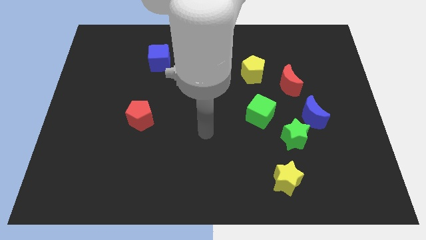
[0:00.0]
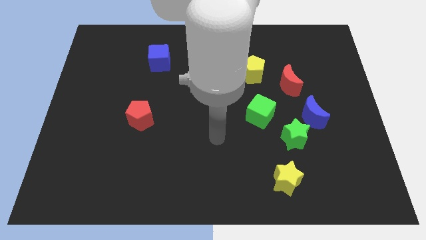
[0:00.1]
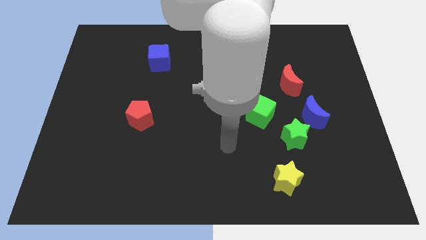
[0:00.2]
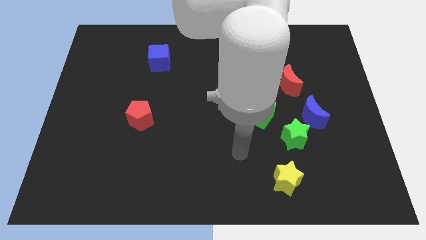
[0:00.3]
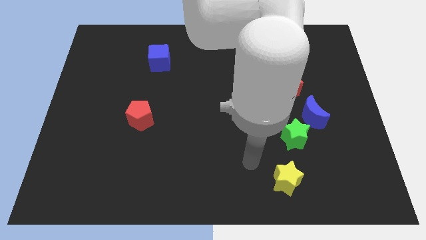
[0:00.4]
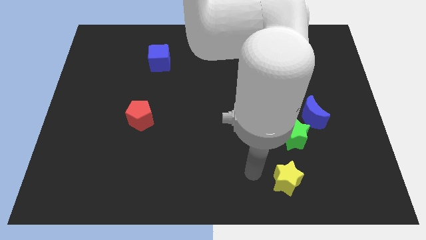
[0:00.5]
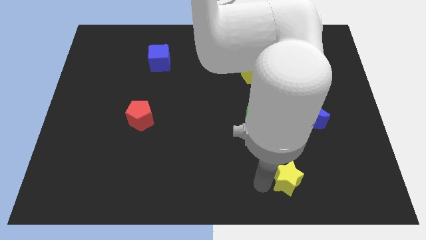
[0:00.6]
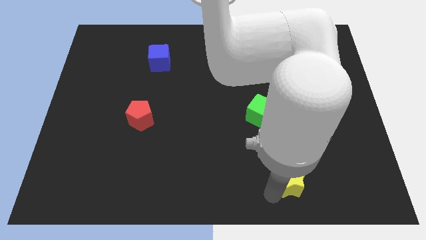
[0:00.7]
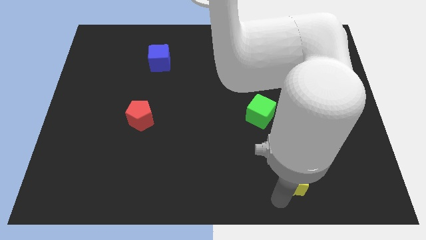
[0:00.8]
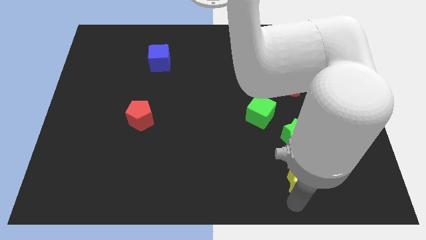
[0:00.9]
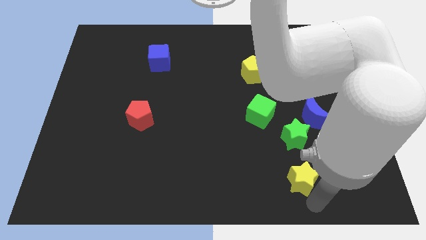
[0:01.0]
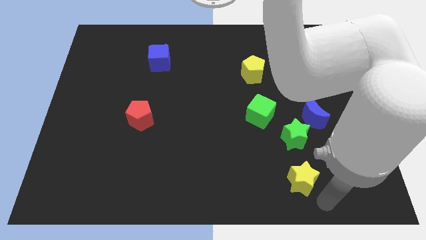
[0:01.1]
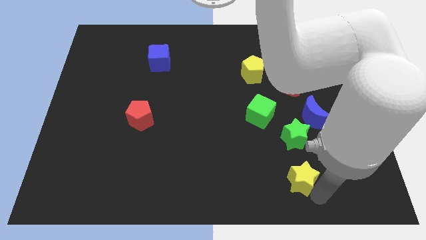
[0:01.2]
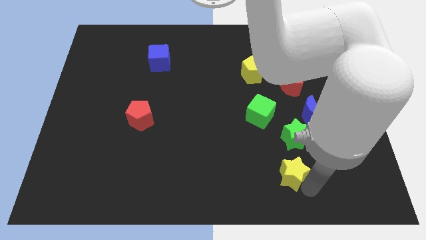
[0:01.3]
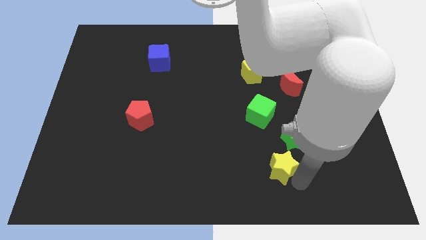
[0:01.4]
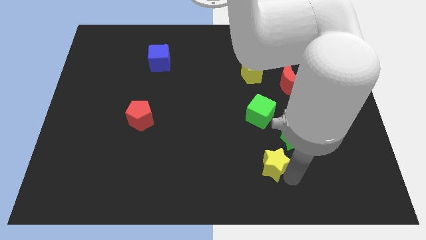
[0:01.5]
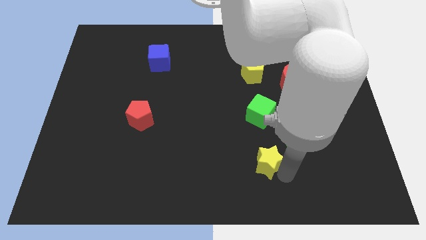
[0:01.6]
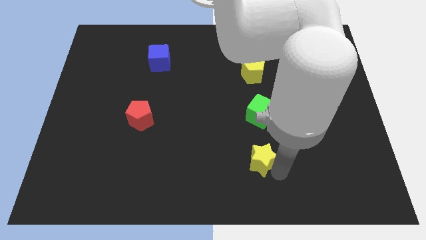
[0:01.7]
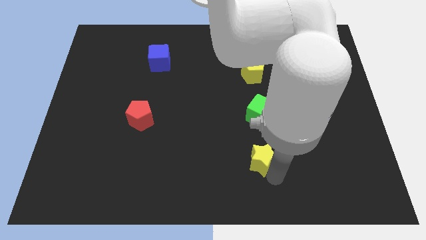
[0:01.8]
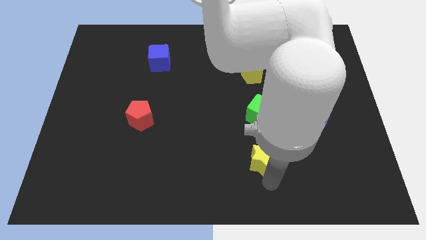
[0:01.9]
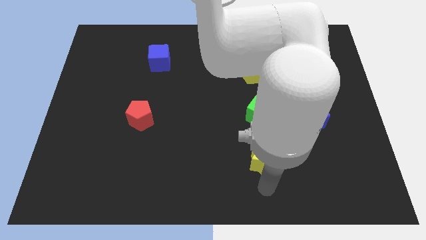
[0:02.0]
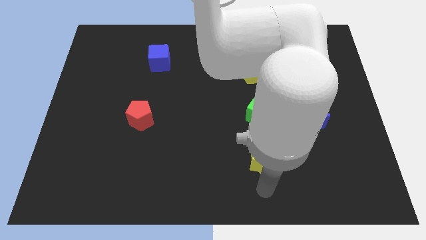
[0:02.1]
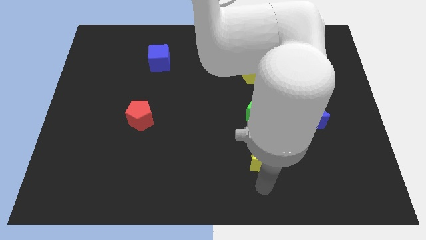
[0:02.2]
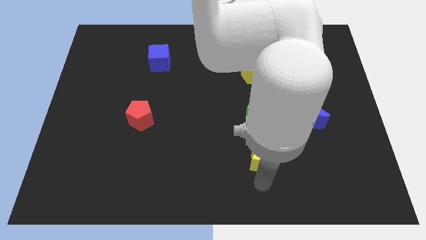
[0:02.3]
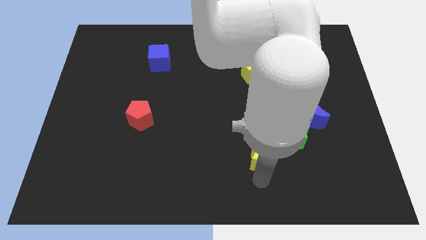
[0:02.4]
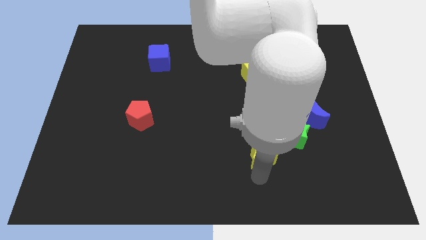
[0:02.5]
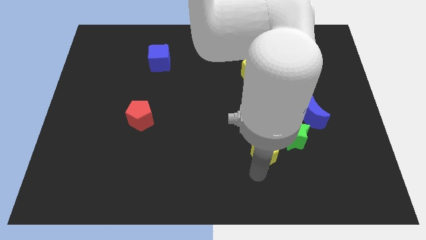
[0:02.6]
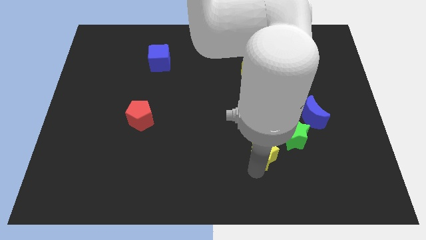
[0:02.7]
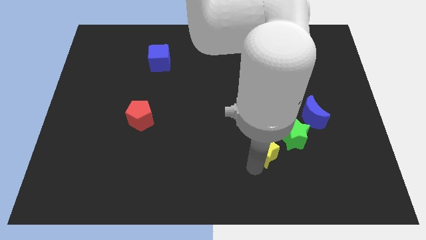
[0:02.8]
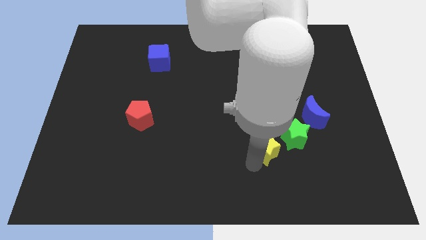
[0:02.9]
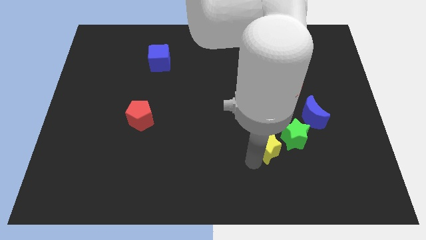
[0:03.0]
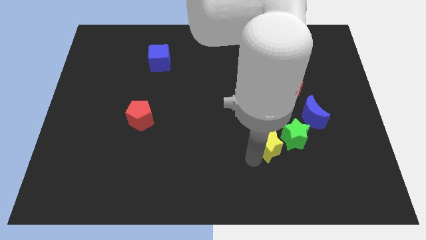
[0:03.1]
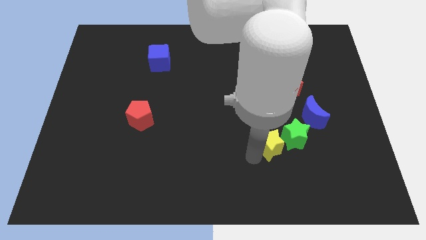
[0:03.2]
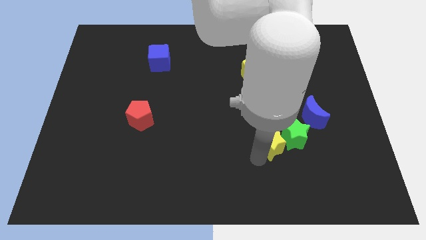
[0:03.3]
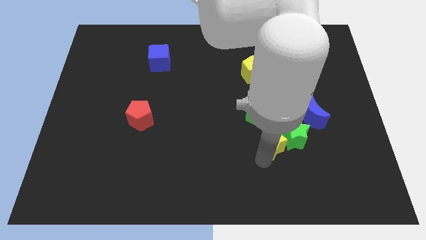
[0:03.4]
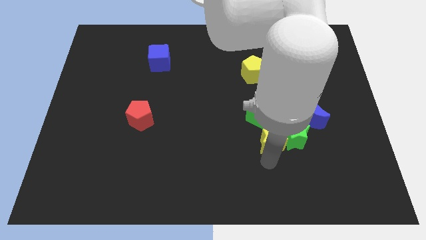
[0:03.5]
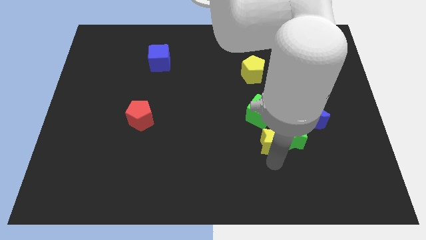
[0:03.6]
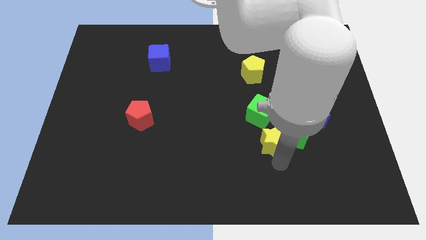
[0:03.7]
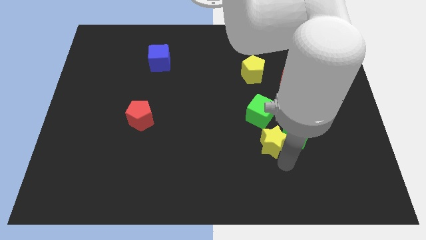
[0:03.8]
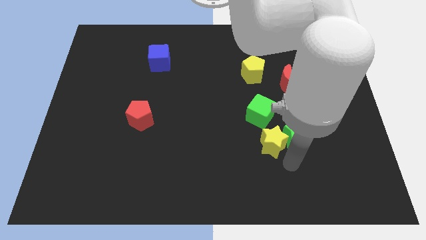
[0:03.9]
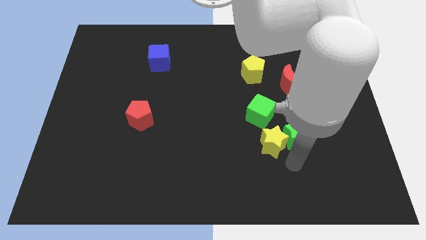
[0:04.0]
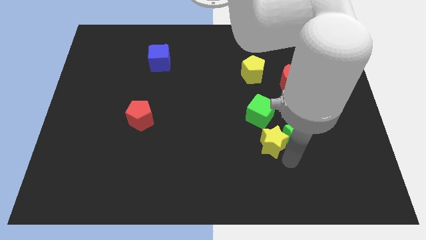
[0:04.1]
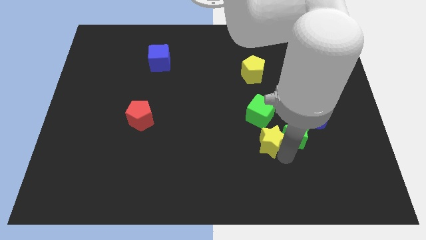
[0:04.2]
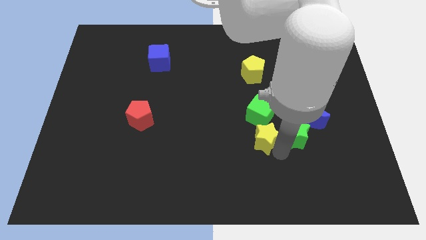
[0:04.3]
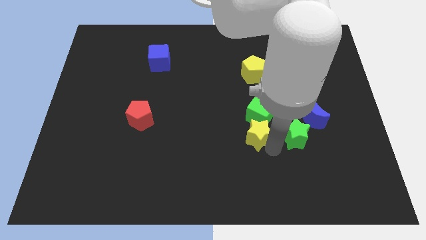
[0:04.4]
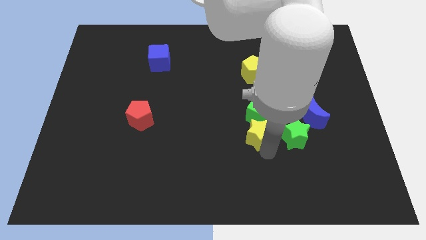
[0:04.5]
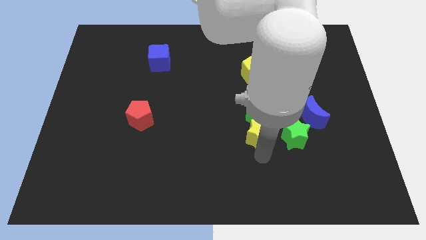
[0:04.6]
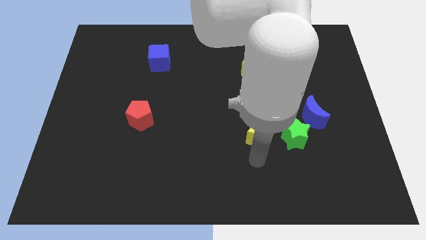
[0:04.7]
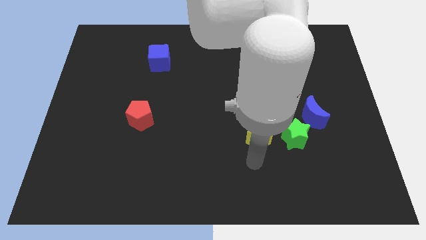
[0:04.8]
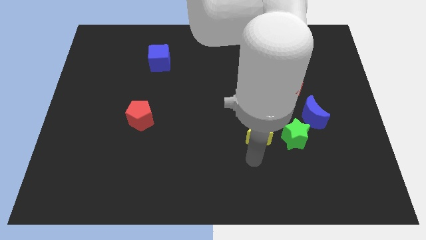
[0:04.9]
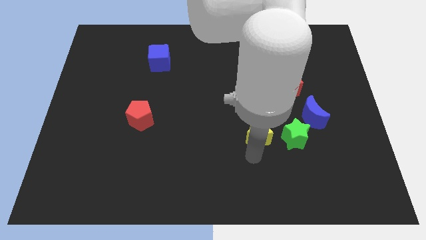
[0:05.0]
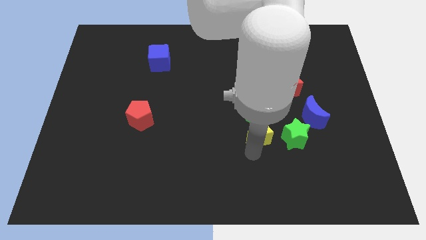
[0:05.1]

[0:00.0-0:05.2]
move the yellow star close to the green cube

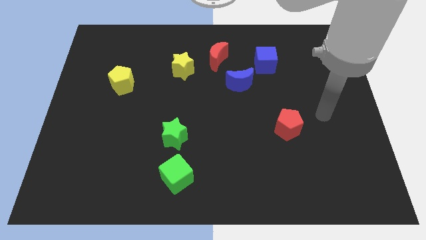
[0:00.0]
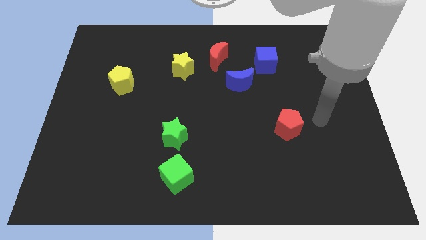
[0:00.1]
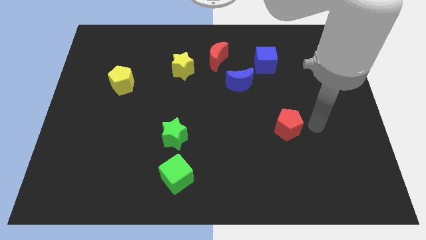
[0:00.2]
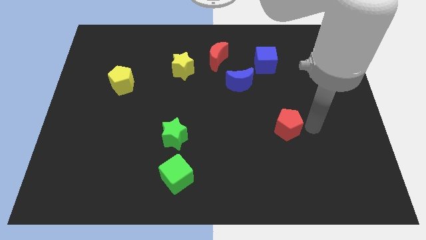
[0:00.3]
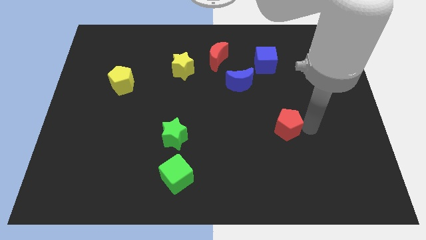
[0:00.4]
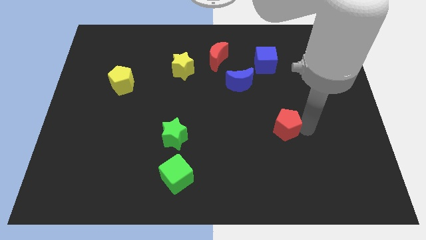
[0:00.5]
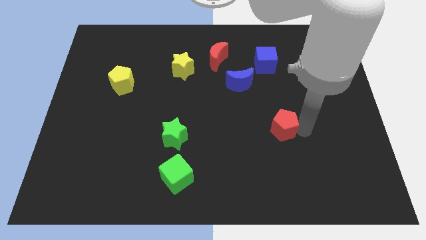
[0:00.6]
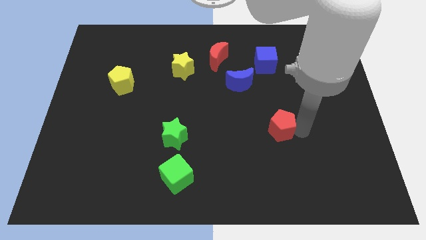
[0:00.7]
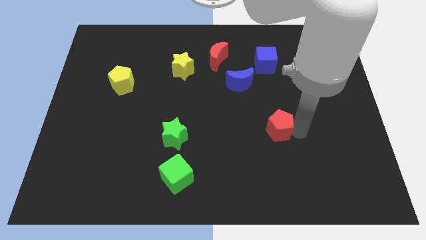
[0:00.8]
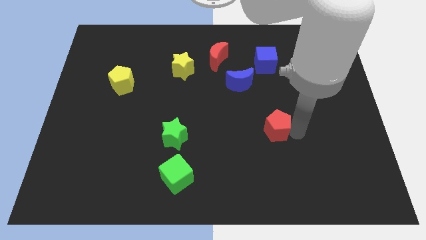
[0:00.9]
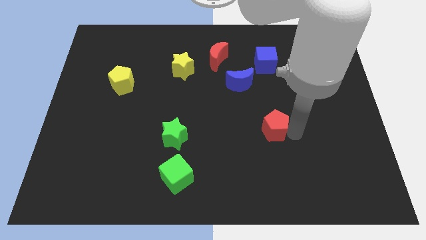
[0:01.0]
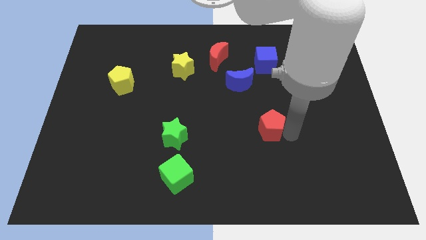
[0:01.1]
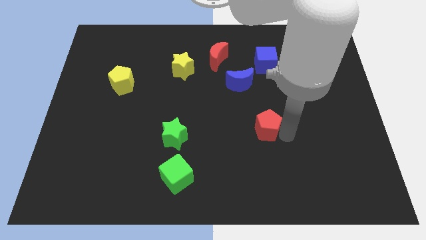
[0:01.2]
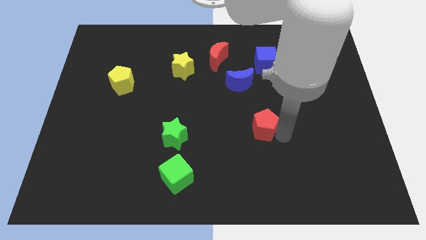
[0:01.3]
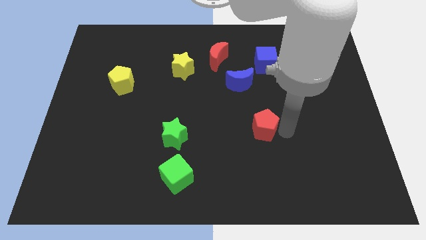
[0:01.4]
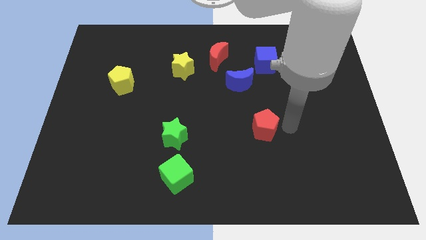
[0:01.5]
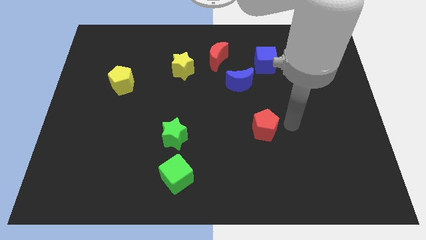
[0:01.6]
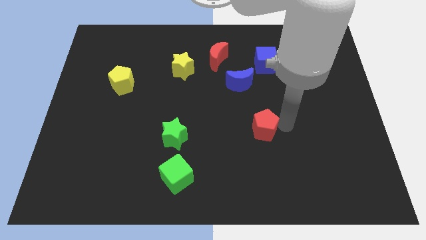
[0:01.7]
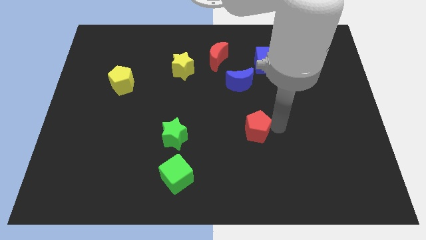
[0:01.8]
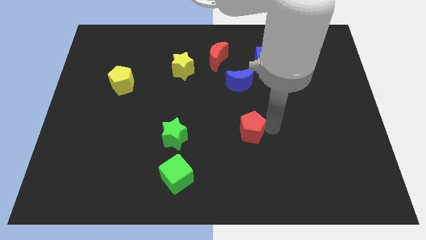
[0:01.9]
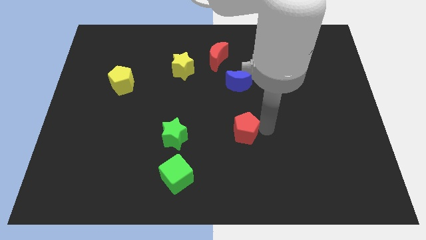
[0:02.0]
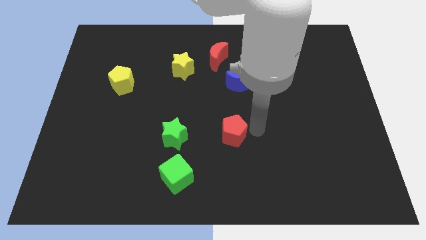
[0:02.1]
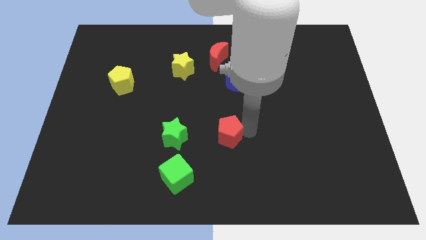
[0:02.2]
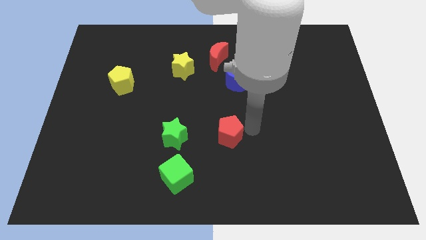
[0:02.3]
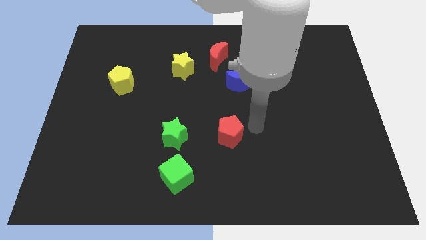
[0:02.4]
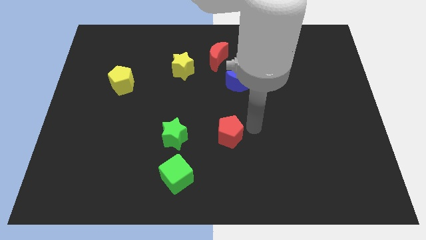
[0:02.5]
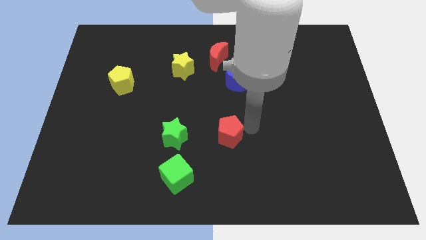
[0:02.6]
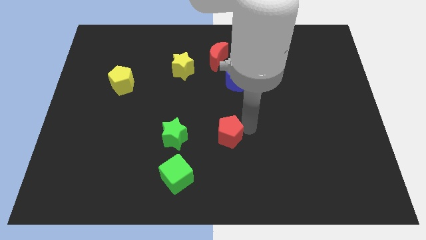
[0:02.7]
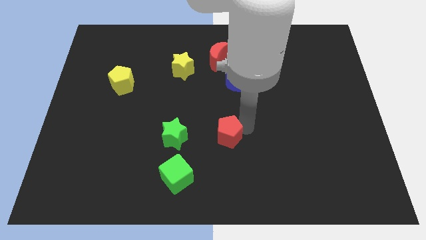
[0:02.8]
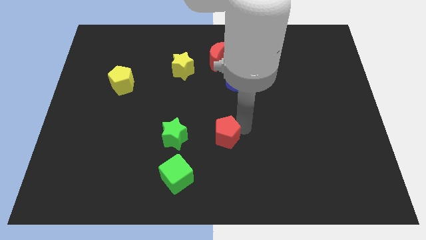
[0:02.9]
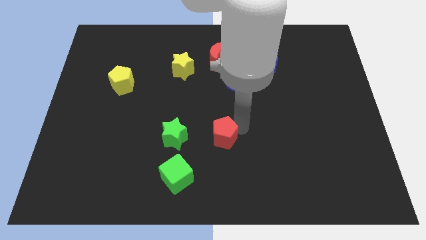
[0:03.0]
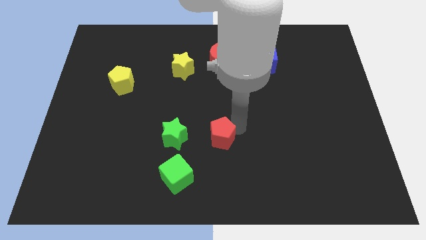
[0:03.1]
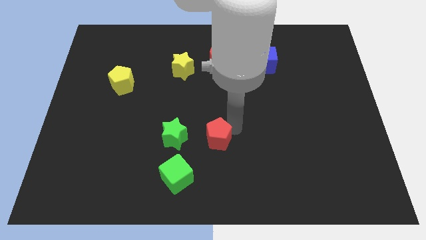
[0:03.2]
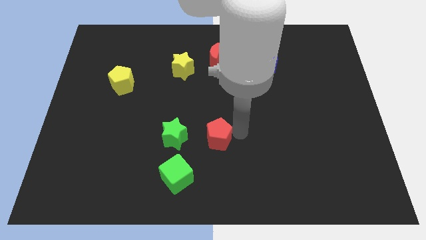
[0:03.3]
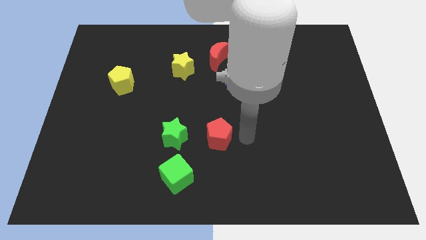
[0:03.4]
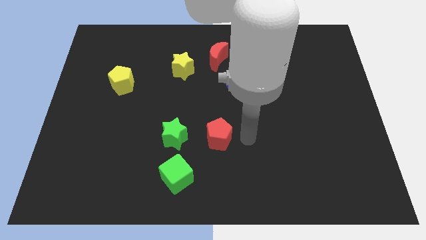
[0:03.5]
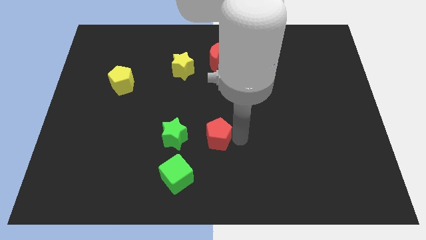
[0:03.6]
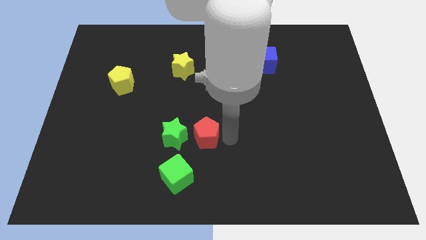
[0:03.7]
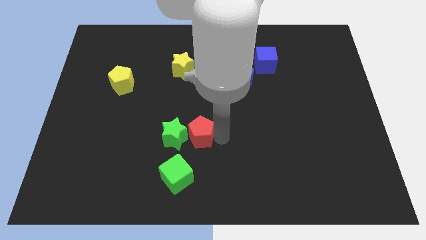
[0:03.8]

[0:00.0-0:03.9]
push the red pentagon to the green star
